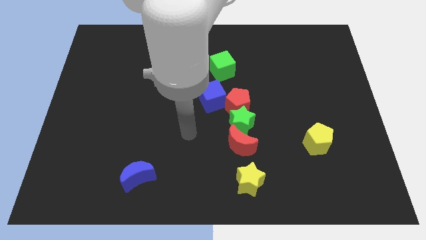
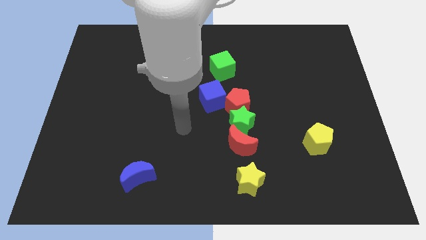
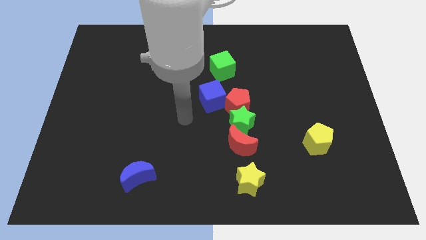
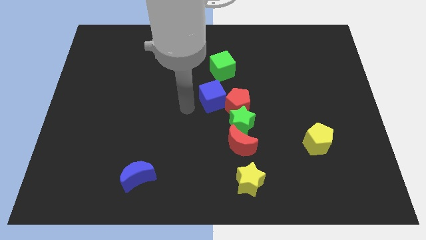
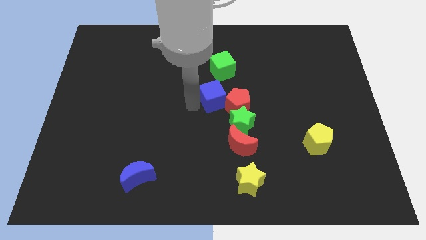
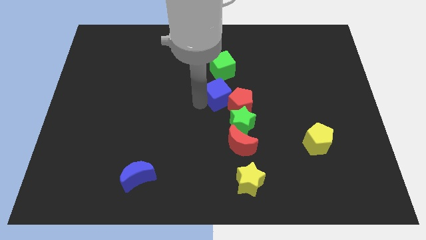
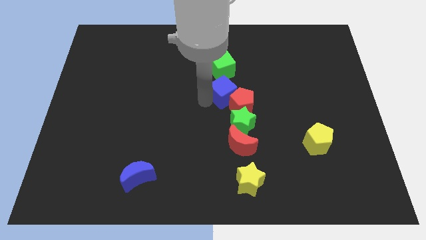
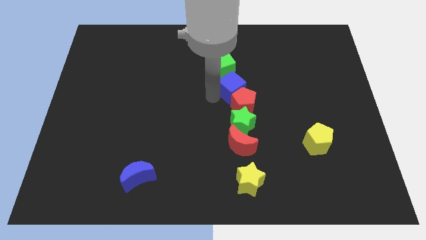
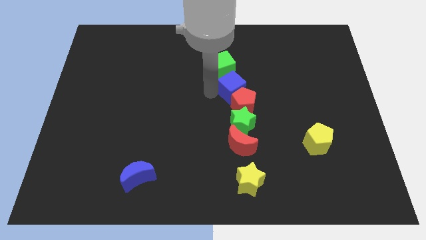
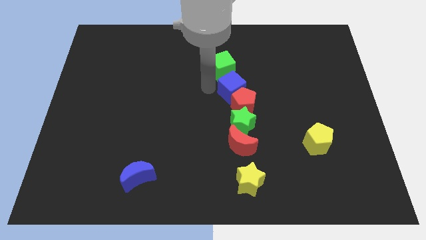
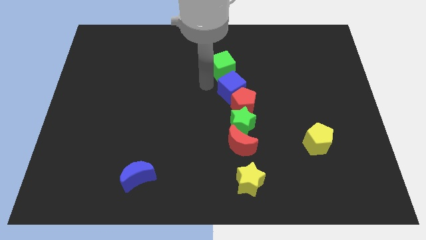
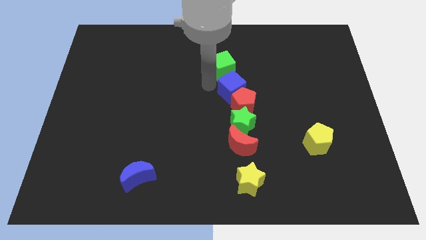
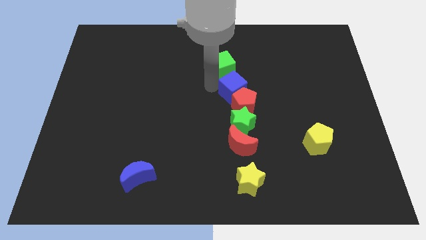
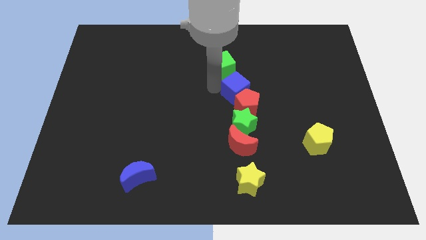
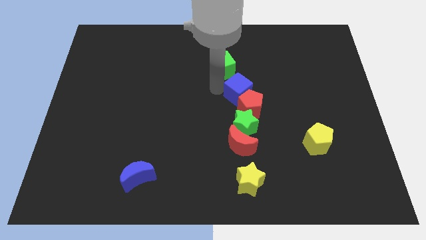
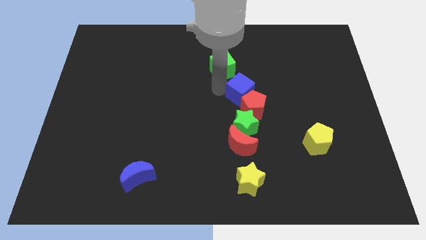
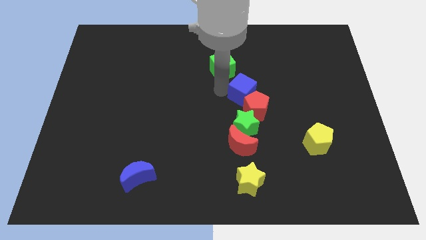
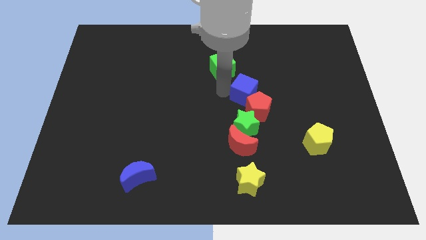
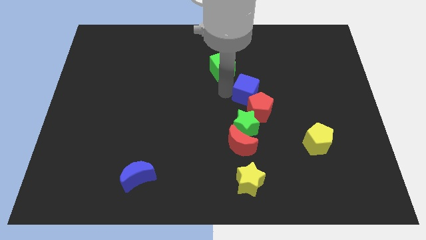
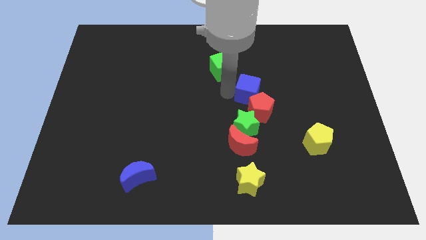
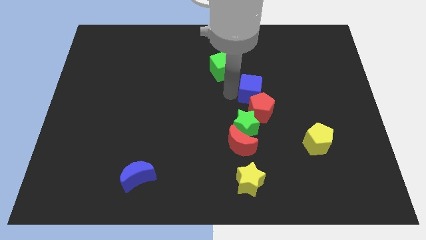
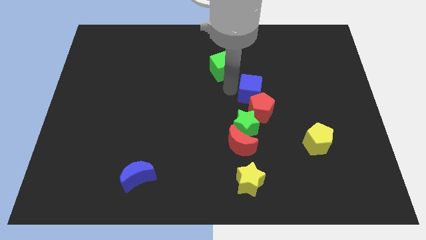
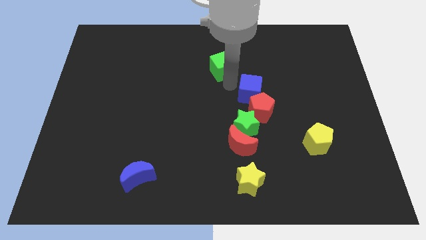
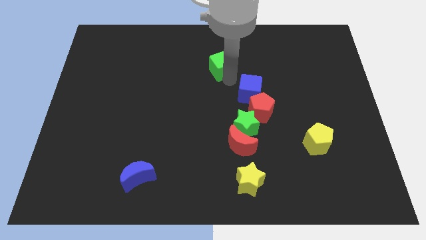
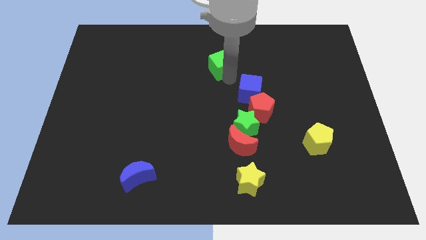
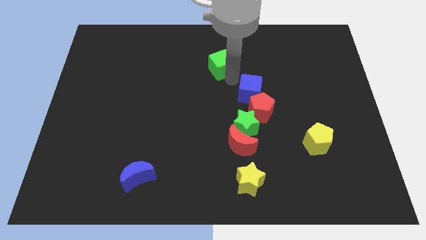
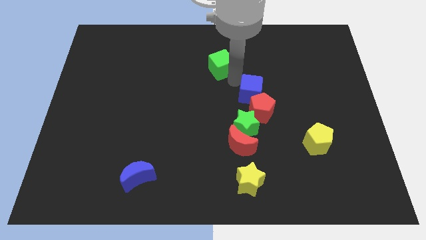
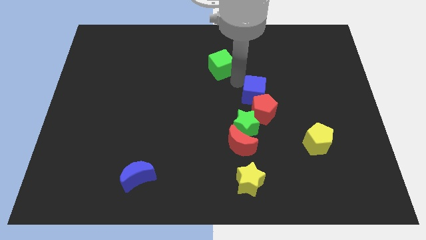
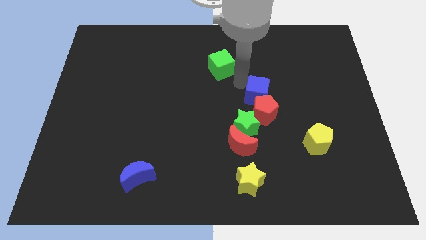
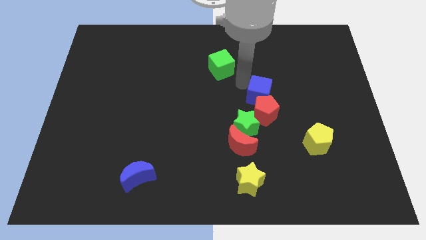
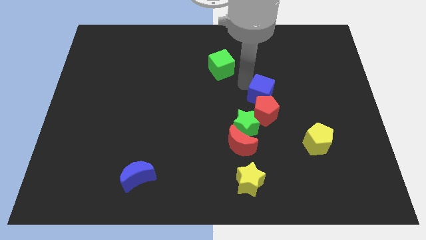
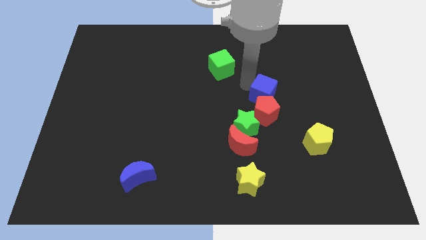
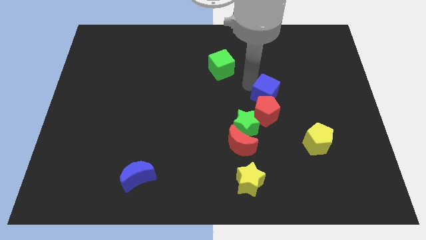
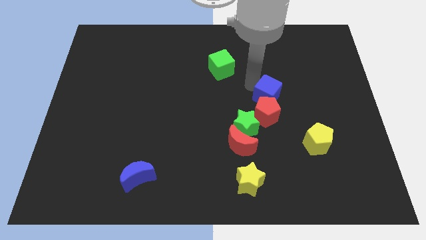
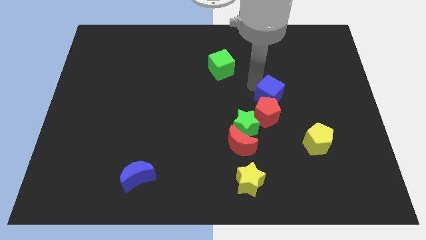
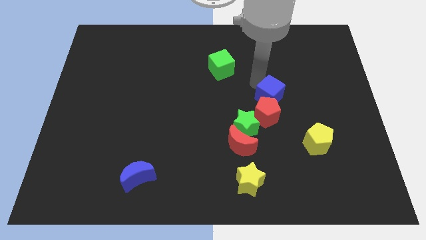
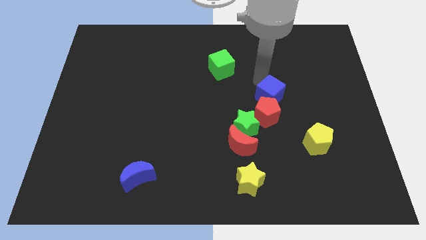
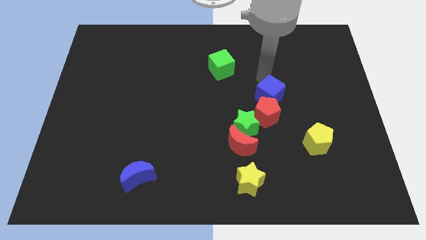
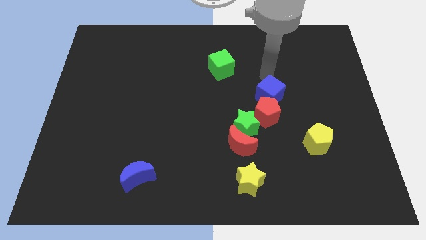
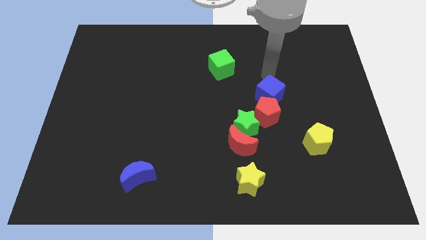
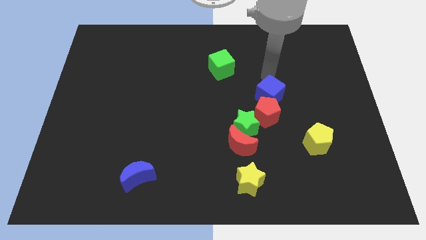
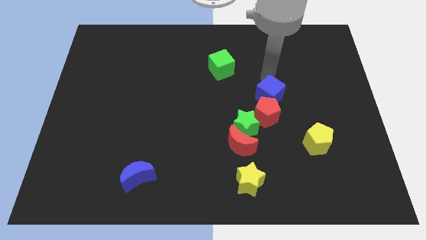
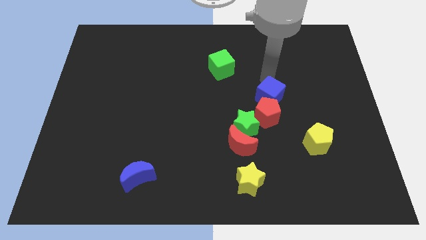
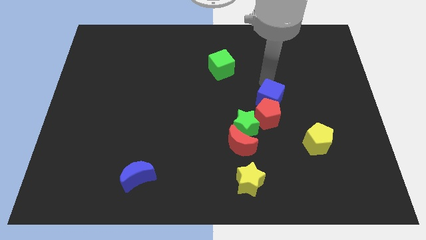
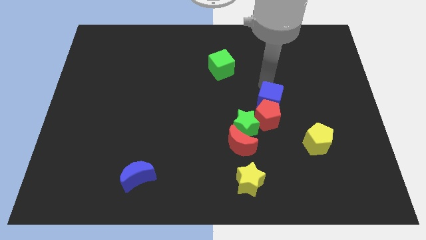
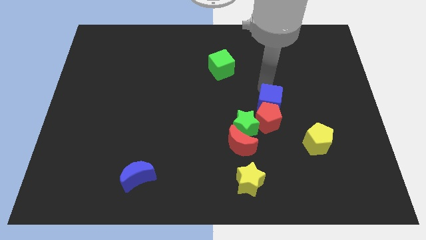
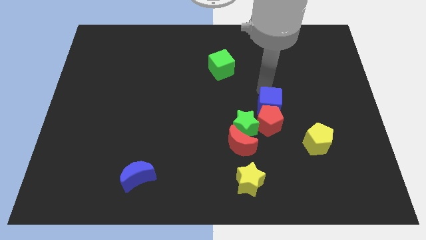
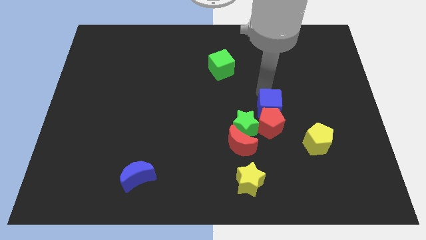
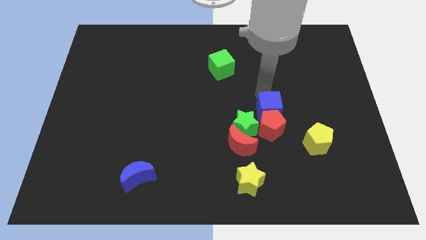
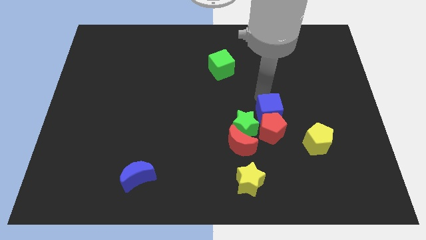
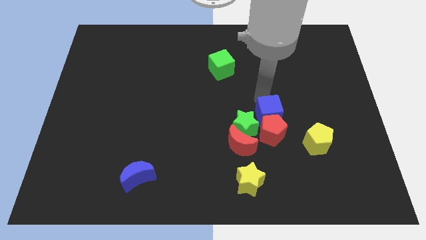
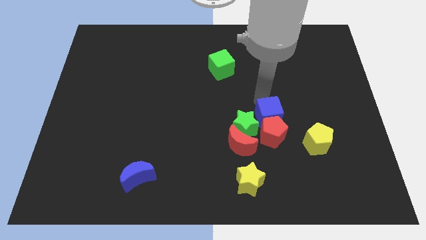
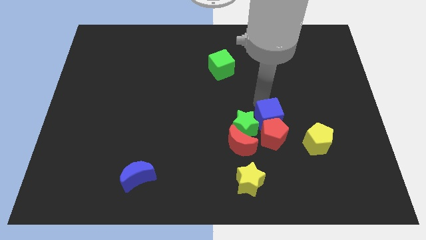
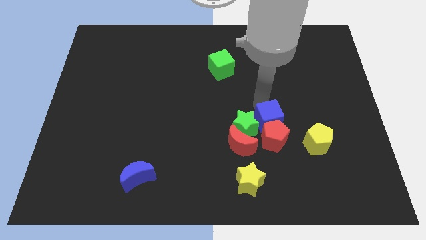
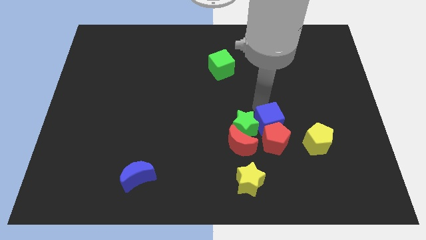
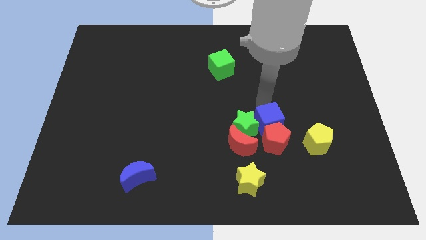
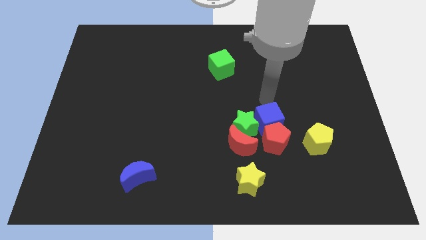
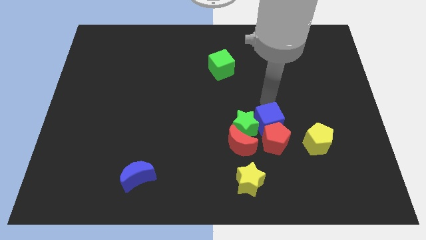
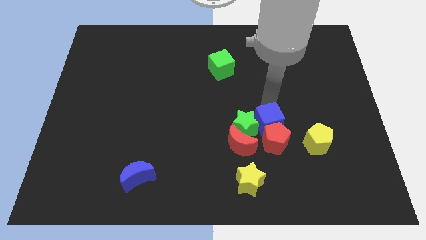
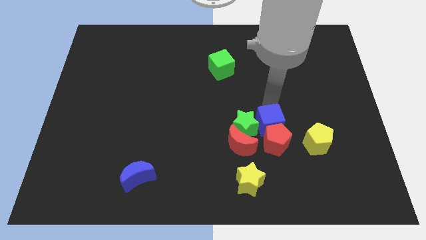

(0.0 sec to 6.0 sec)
move the blue cube to the left side of the yellow pentagon

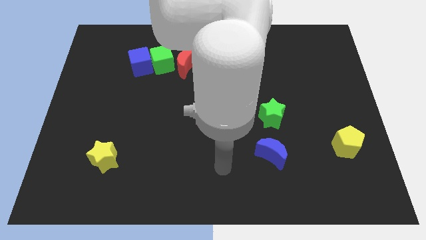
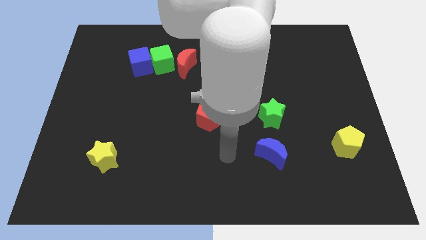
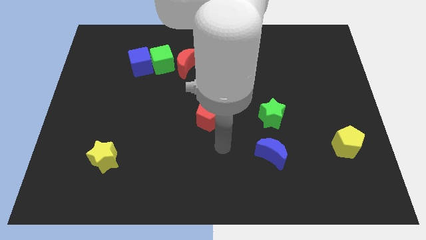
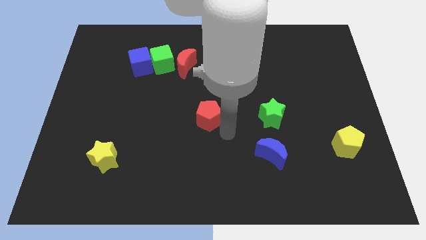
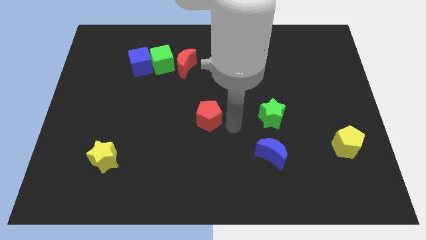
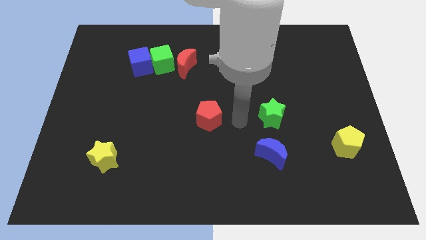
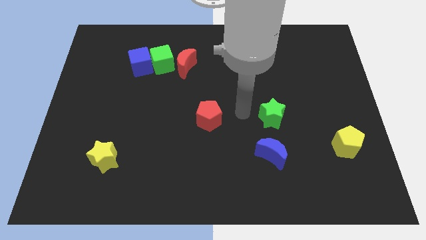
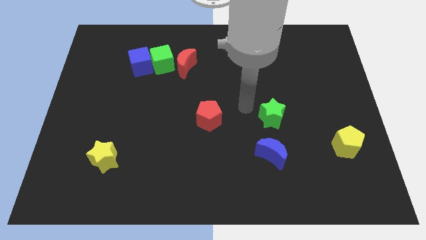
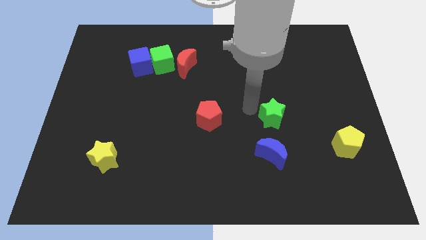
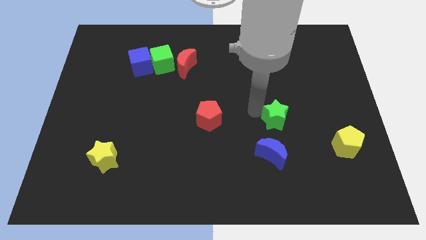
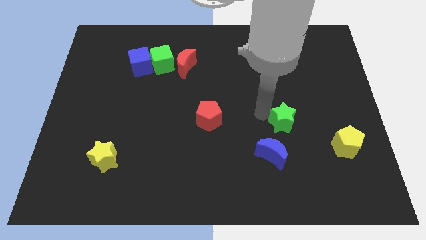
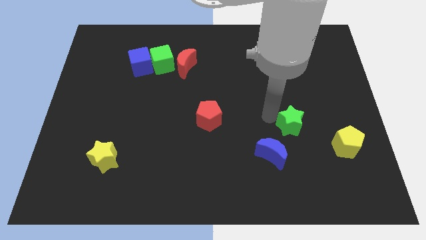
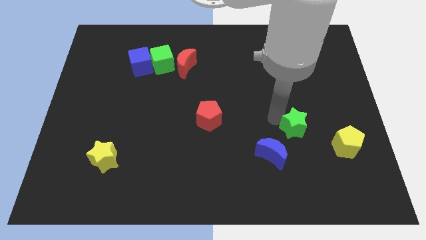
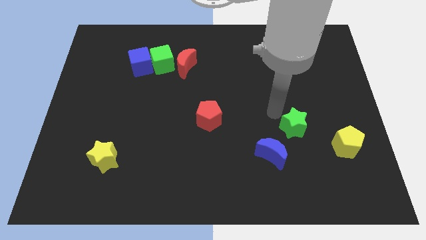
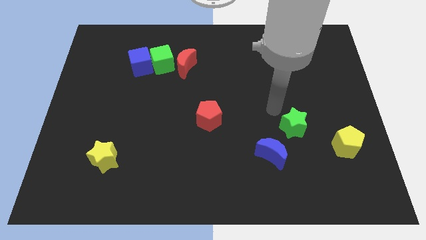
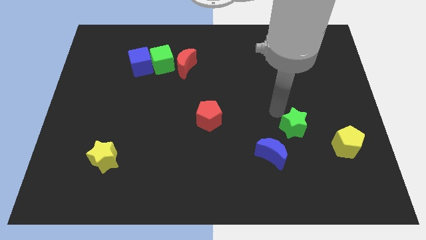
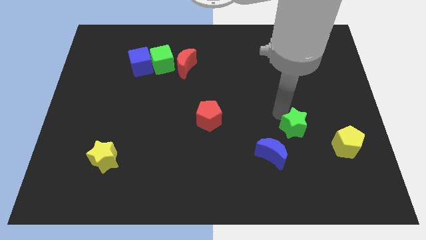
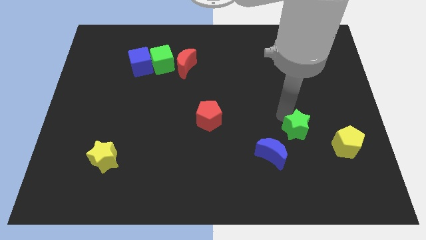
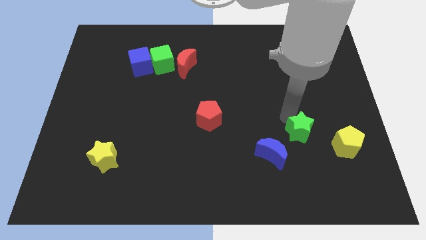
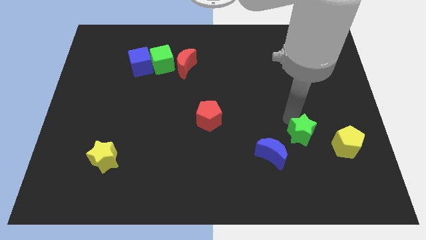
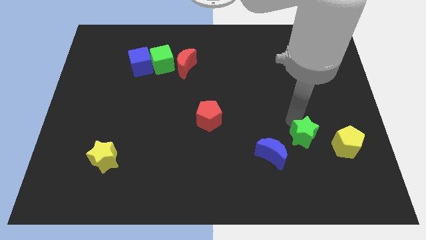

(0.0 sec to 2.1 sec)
put the green star to the right of the blue moon
